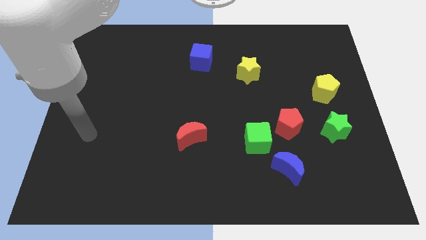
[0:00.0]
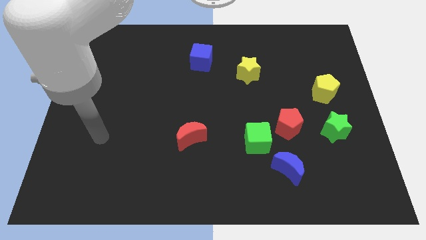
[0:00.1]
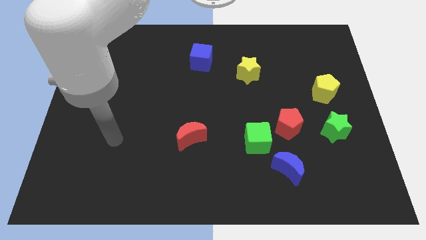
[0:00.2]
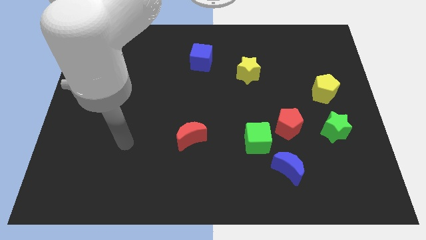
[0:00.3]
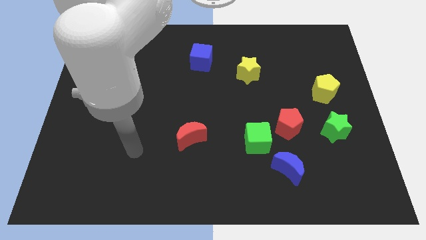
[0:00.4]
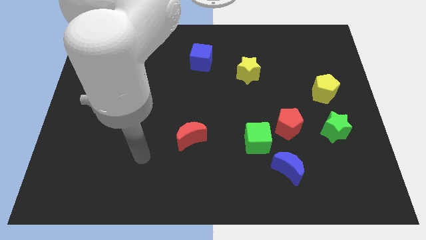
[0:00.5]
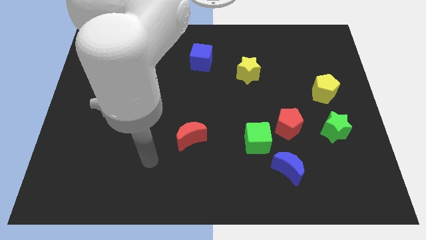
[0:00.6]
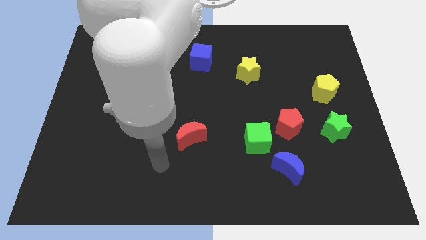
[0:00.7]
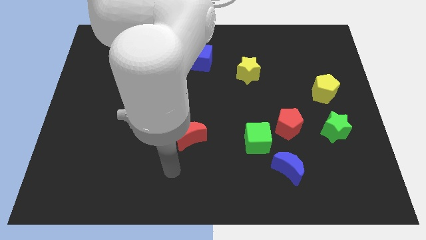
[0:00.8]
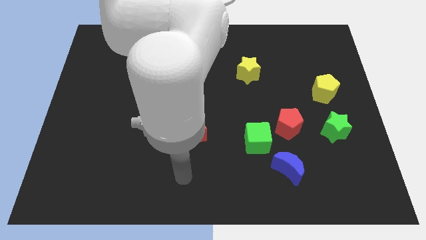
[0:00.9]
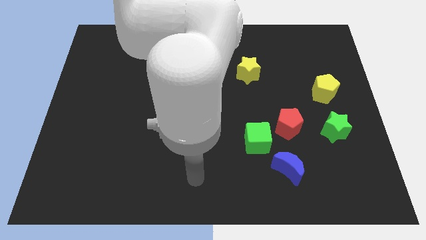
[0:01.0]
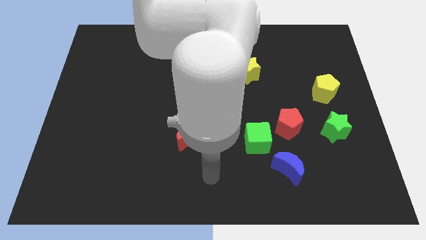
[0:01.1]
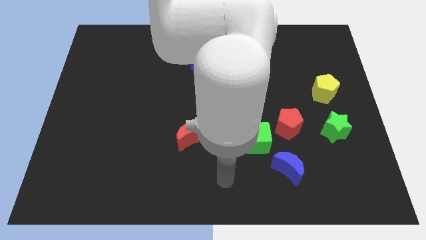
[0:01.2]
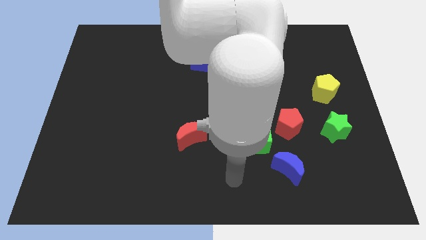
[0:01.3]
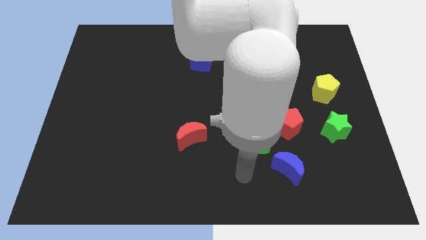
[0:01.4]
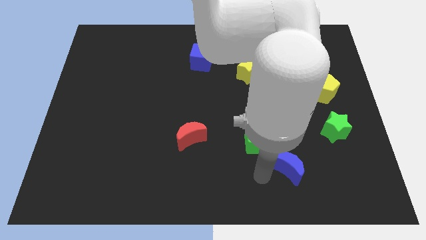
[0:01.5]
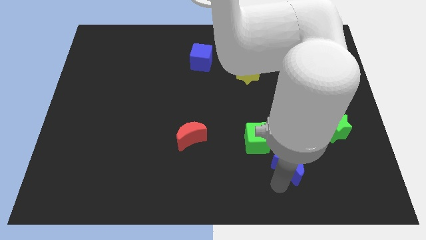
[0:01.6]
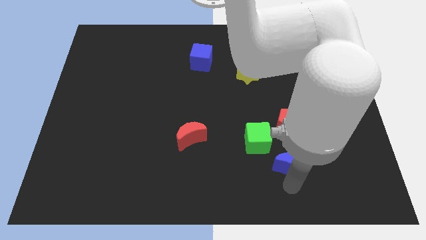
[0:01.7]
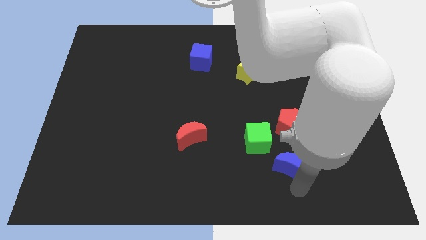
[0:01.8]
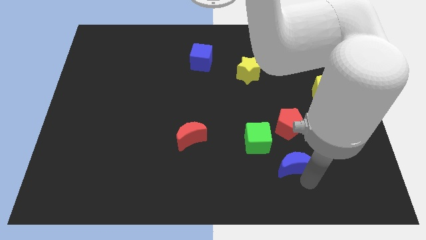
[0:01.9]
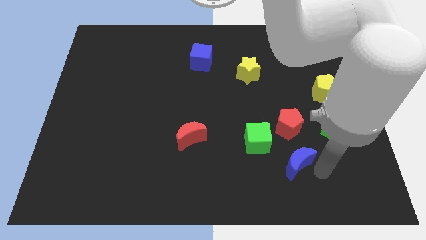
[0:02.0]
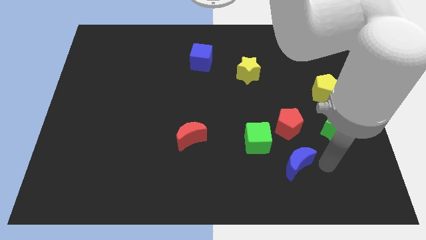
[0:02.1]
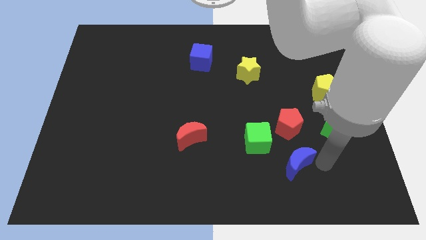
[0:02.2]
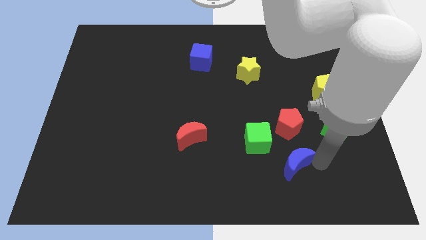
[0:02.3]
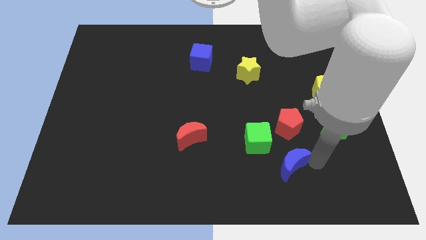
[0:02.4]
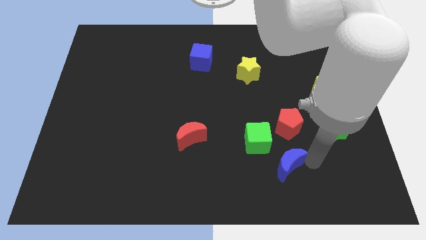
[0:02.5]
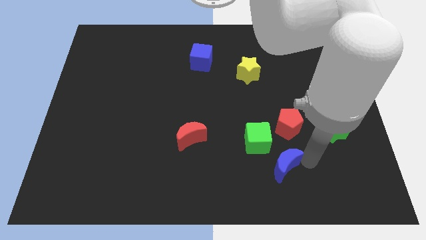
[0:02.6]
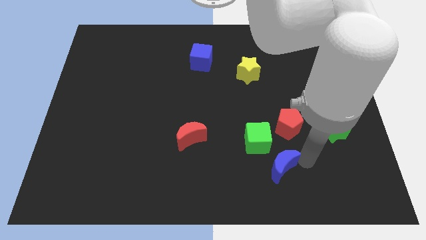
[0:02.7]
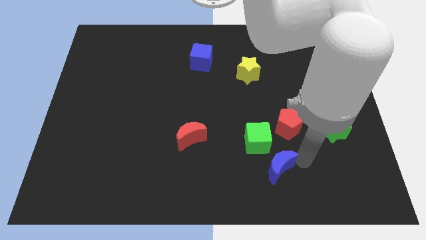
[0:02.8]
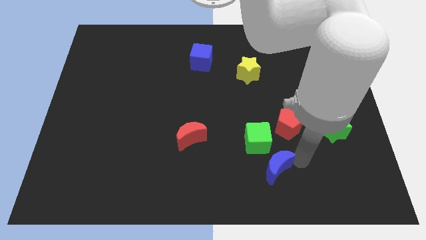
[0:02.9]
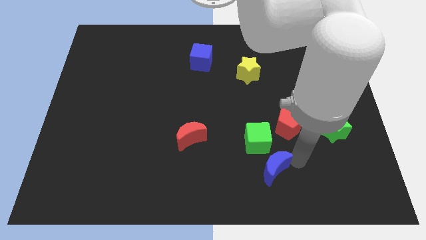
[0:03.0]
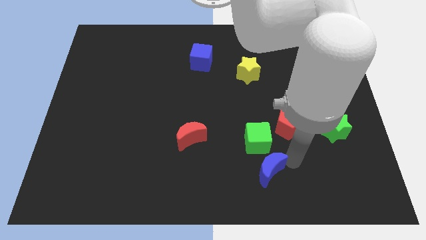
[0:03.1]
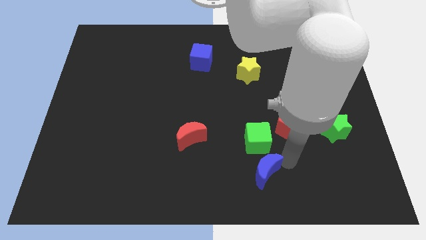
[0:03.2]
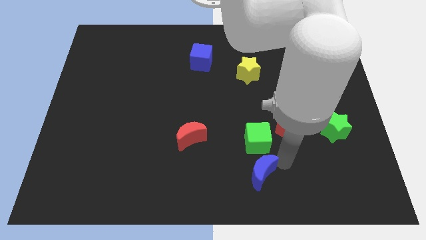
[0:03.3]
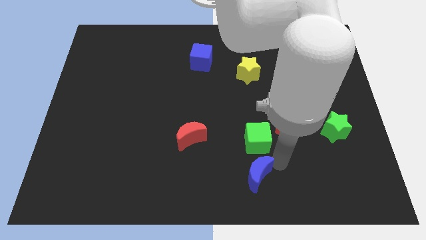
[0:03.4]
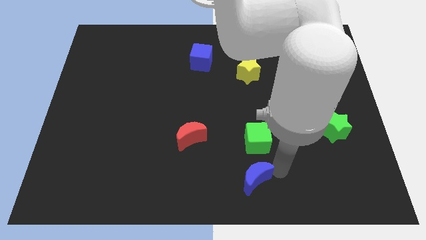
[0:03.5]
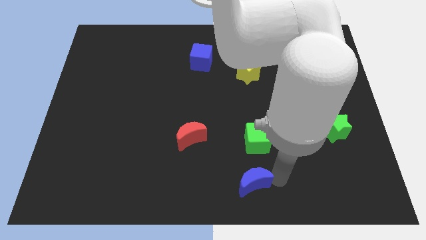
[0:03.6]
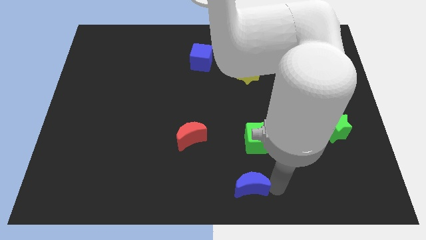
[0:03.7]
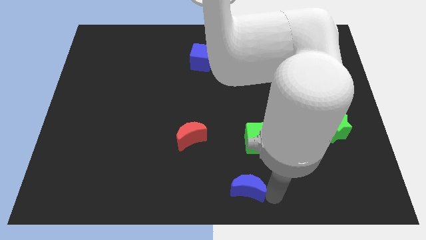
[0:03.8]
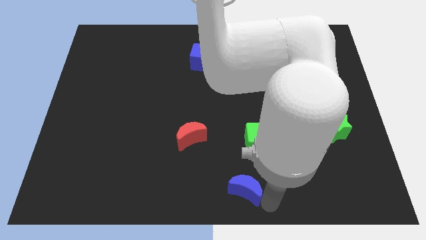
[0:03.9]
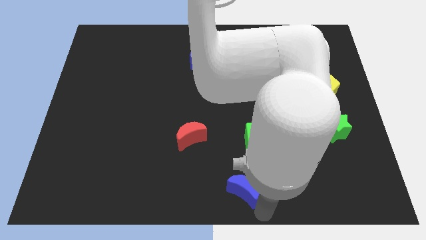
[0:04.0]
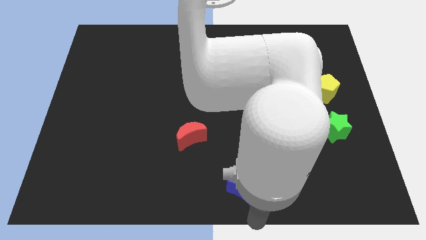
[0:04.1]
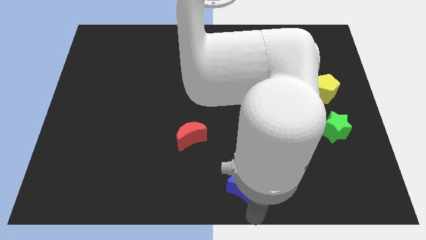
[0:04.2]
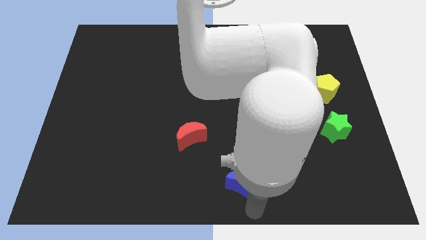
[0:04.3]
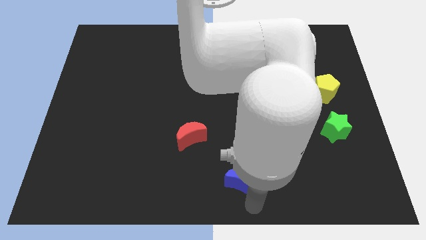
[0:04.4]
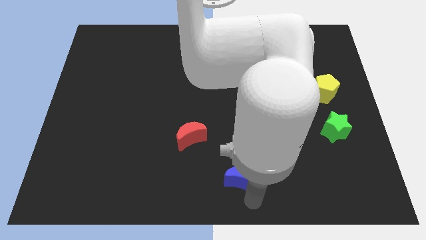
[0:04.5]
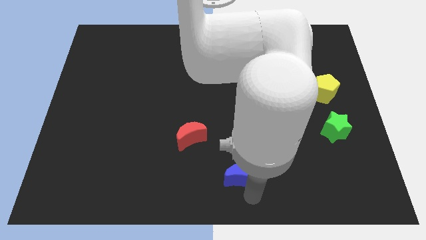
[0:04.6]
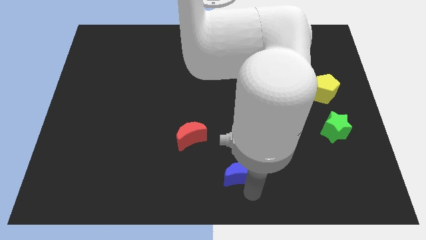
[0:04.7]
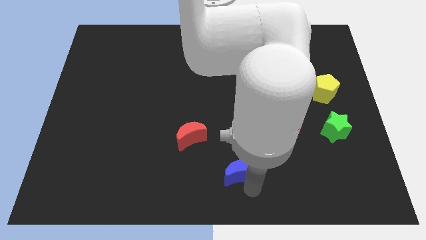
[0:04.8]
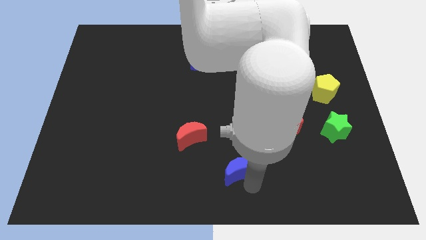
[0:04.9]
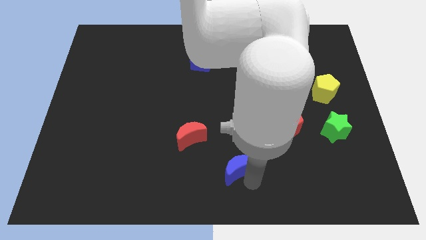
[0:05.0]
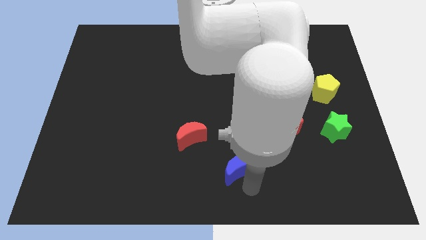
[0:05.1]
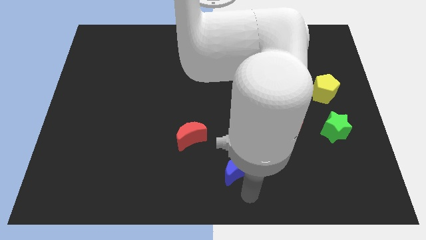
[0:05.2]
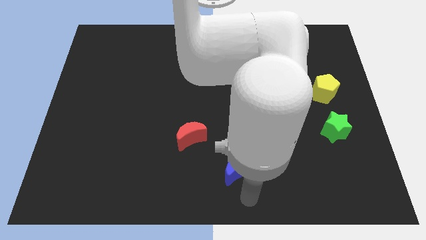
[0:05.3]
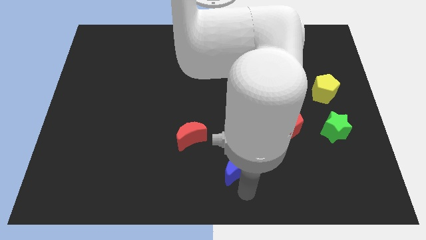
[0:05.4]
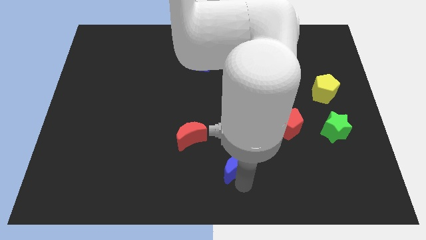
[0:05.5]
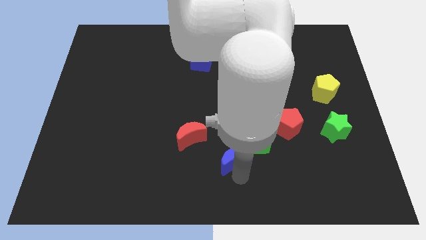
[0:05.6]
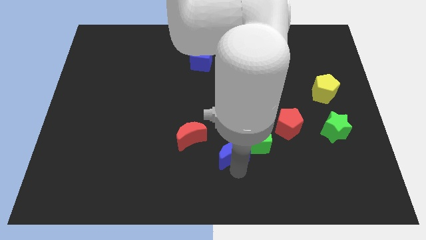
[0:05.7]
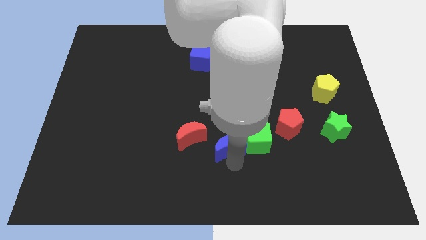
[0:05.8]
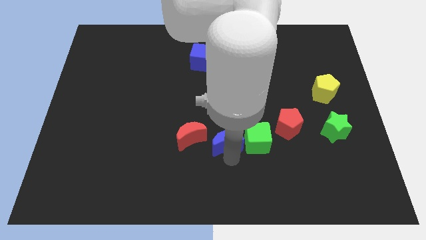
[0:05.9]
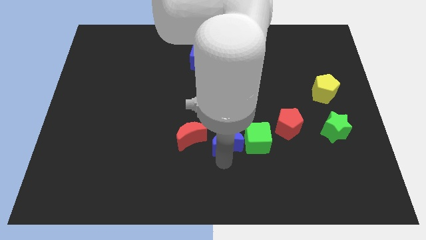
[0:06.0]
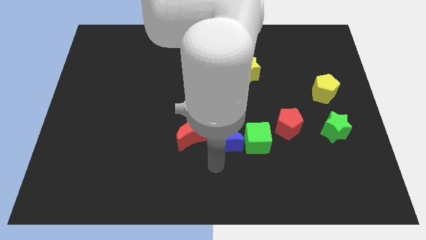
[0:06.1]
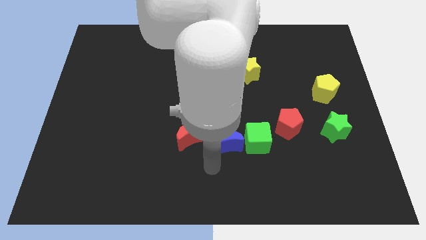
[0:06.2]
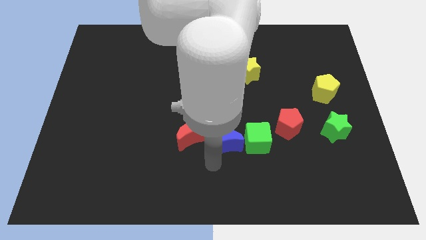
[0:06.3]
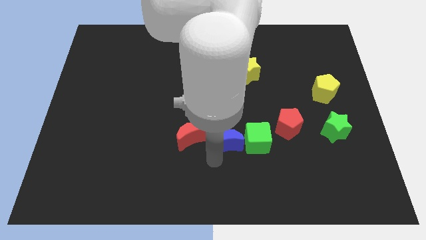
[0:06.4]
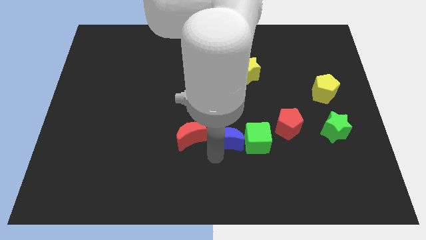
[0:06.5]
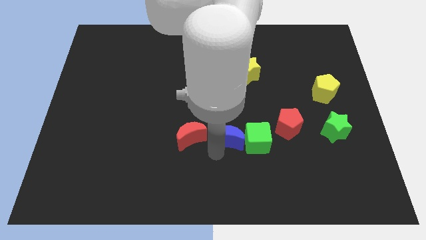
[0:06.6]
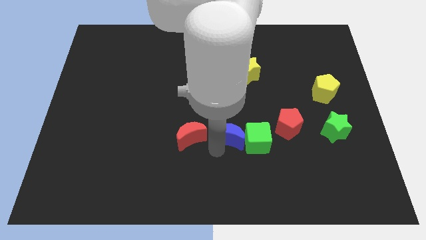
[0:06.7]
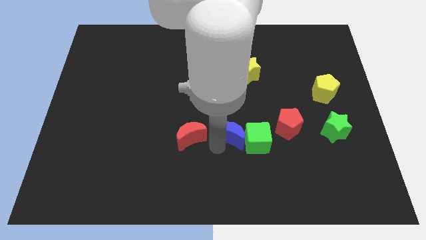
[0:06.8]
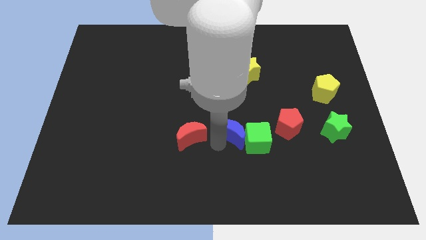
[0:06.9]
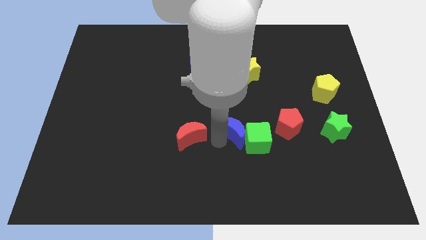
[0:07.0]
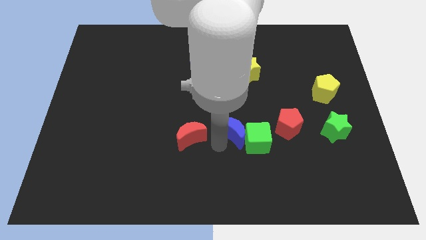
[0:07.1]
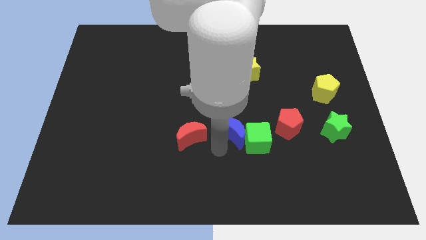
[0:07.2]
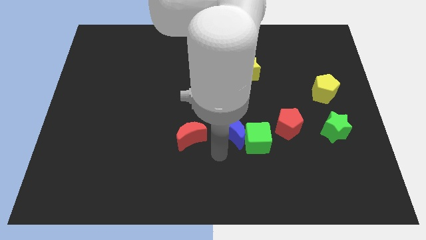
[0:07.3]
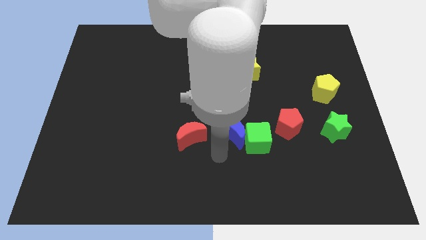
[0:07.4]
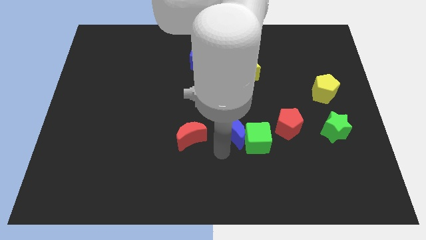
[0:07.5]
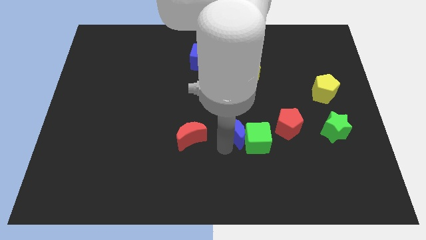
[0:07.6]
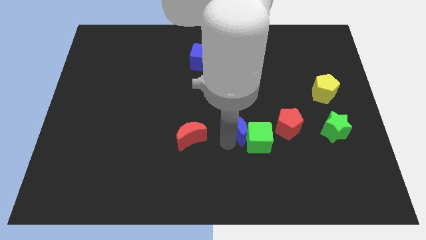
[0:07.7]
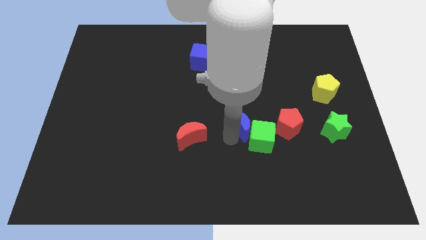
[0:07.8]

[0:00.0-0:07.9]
slide the blue moon to the top of the green cube
